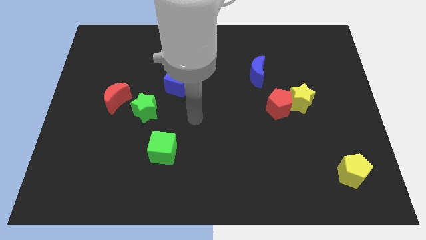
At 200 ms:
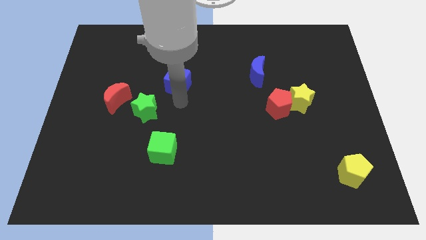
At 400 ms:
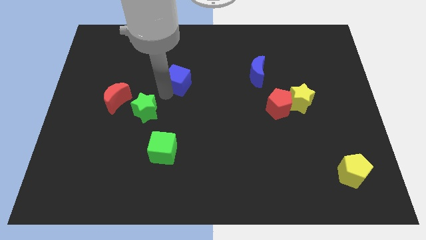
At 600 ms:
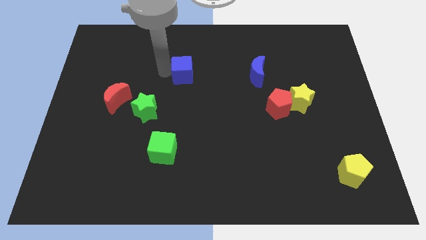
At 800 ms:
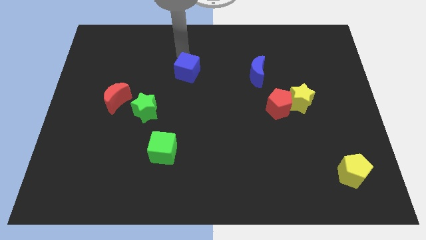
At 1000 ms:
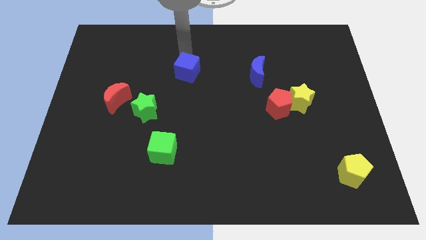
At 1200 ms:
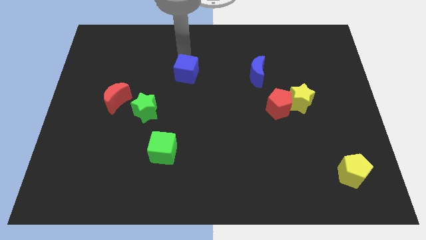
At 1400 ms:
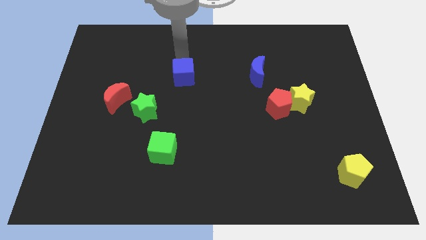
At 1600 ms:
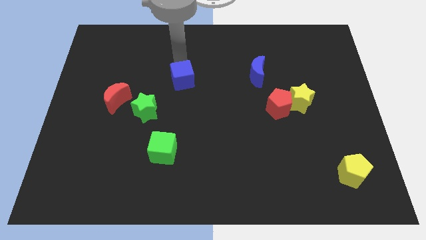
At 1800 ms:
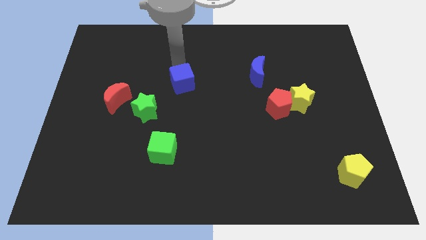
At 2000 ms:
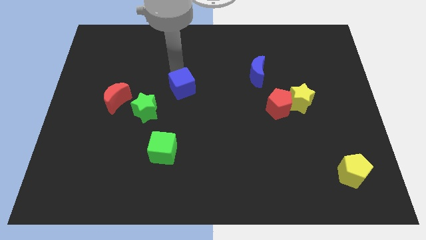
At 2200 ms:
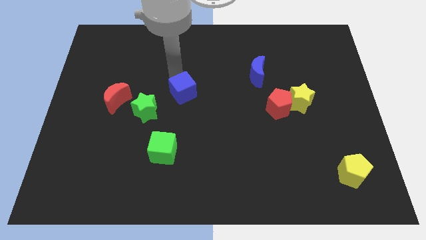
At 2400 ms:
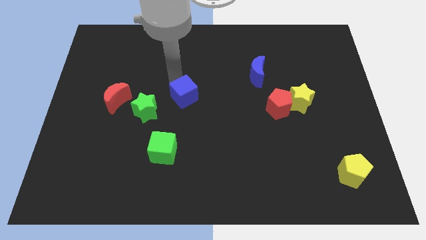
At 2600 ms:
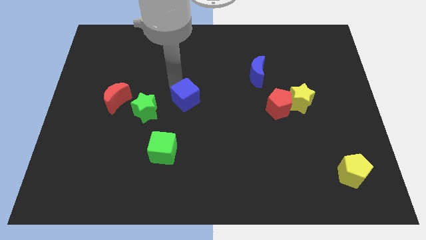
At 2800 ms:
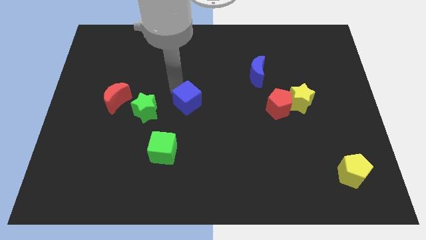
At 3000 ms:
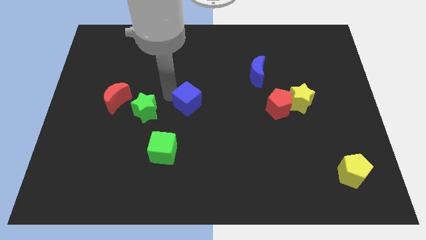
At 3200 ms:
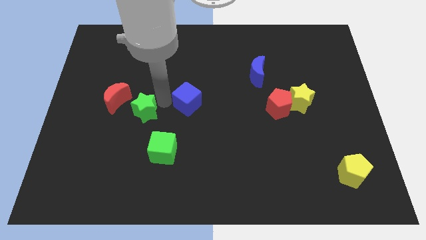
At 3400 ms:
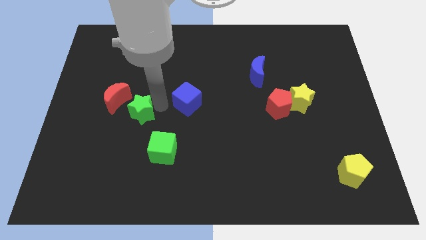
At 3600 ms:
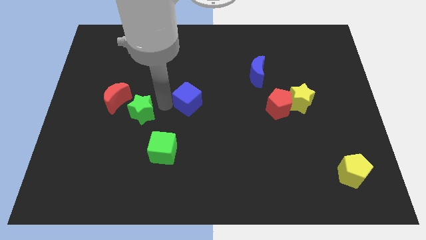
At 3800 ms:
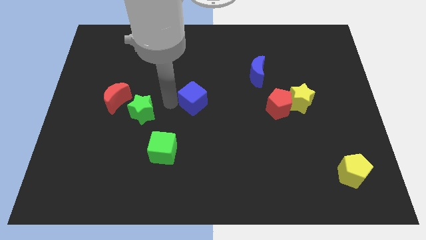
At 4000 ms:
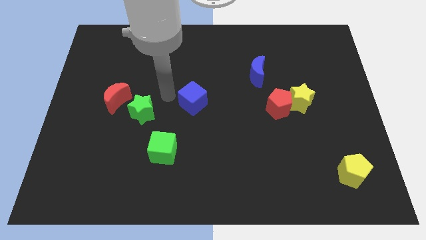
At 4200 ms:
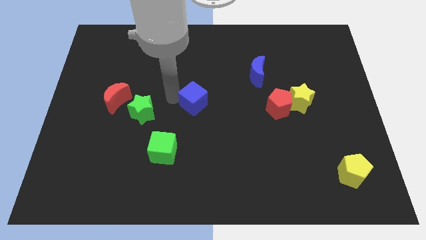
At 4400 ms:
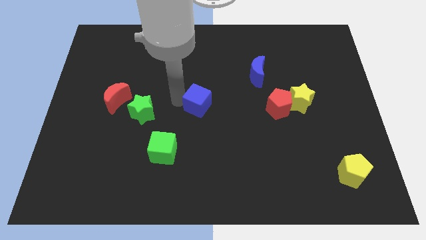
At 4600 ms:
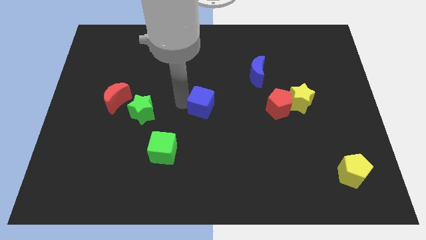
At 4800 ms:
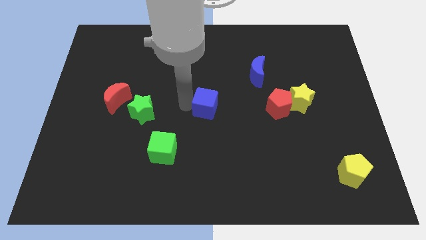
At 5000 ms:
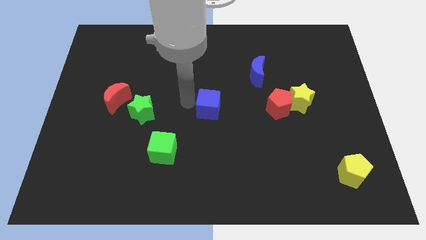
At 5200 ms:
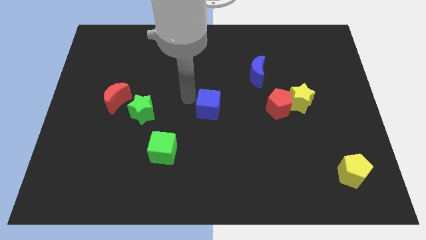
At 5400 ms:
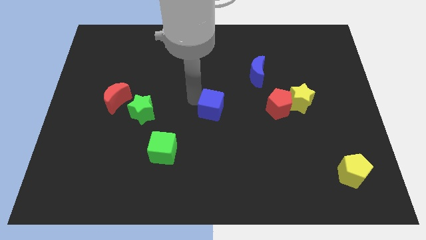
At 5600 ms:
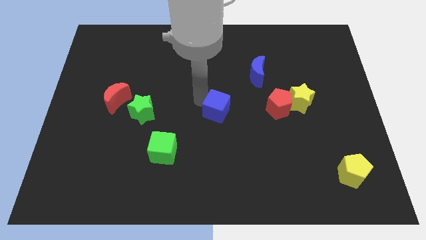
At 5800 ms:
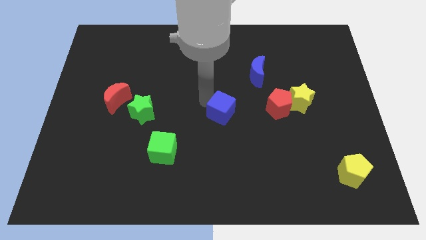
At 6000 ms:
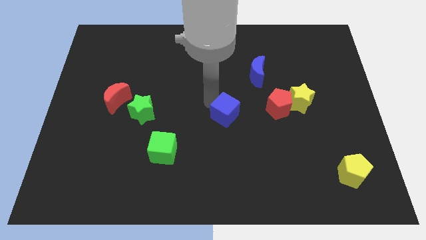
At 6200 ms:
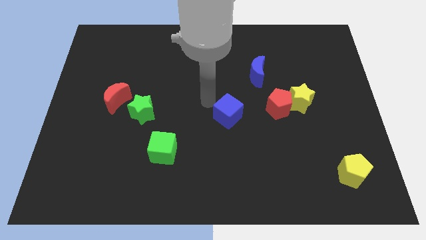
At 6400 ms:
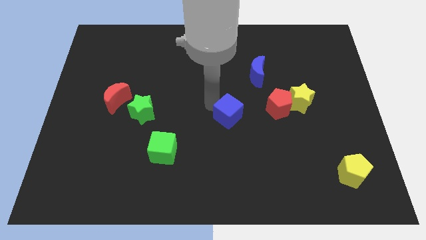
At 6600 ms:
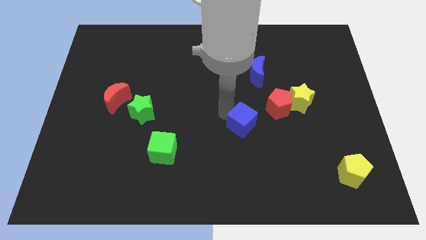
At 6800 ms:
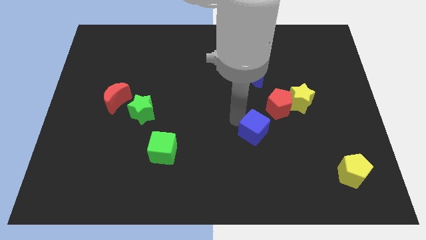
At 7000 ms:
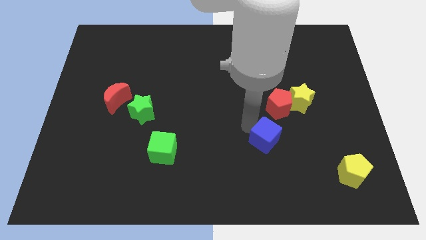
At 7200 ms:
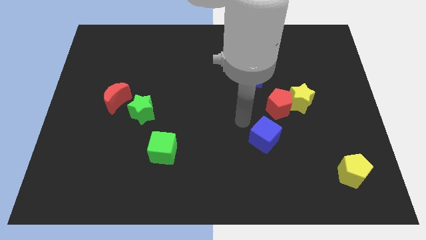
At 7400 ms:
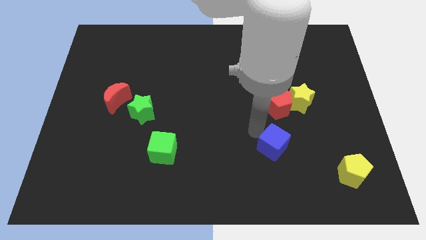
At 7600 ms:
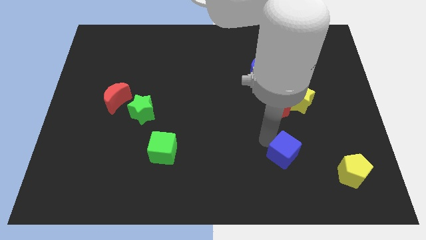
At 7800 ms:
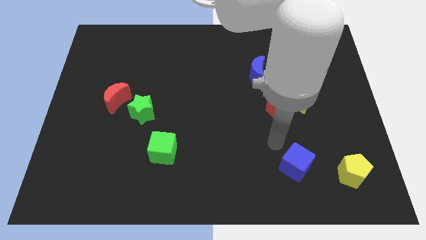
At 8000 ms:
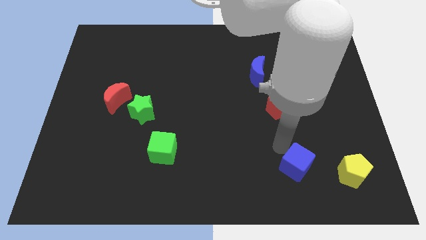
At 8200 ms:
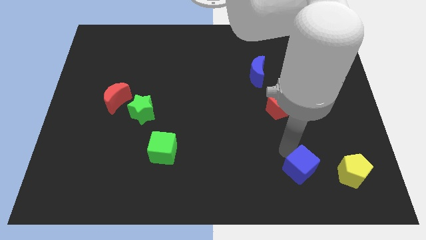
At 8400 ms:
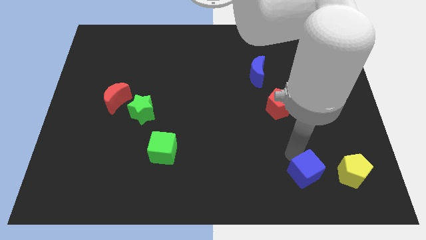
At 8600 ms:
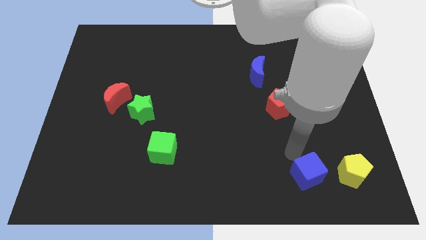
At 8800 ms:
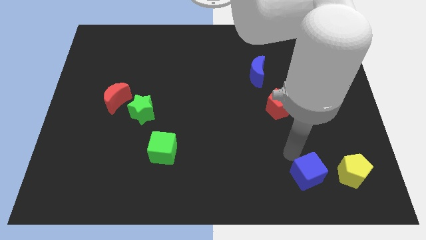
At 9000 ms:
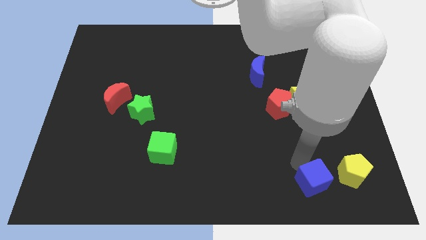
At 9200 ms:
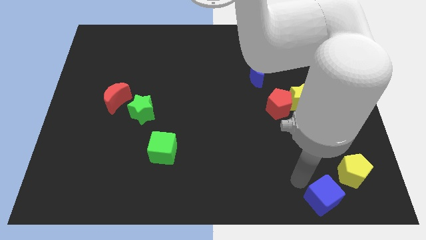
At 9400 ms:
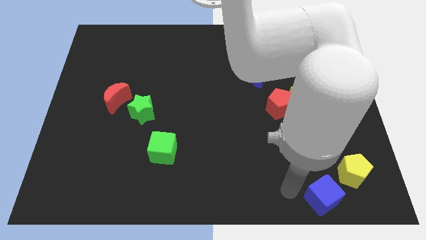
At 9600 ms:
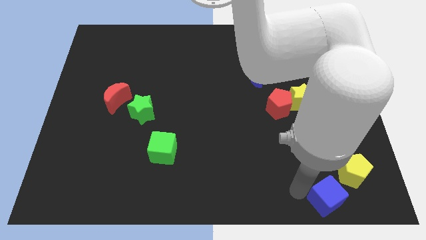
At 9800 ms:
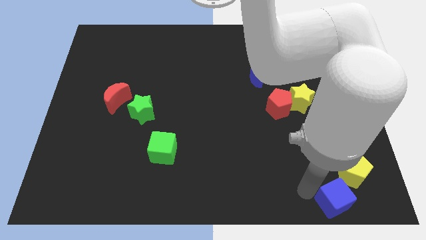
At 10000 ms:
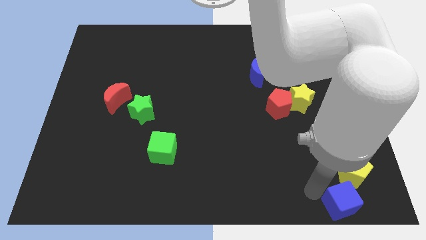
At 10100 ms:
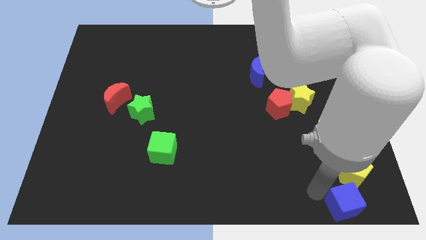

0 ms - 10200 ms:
push the blue cube to the lower right corner

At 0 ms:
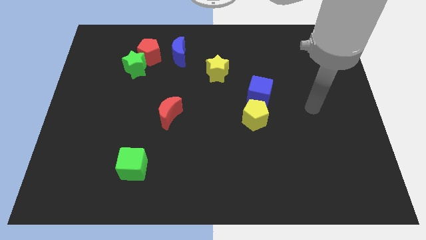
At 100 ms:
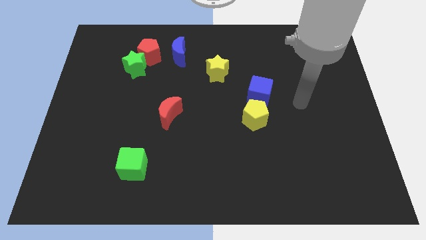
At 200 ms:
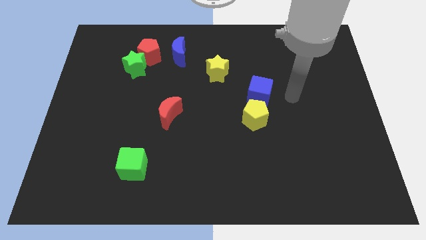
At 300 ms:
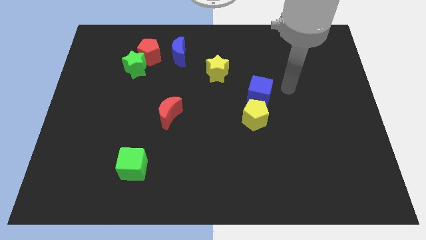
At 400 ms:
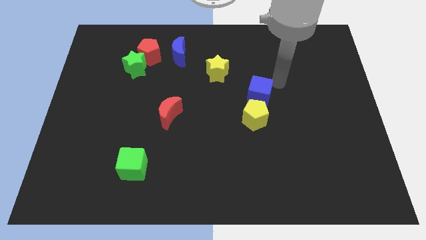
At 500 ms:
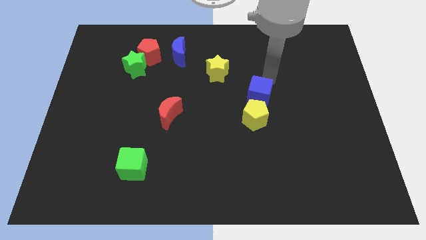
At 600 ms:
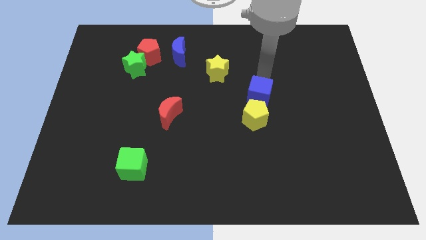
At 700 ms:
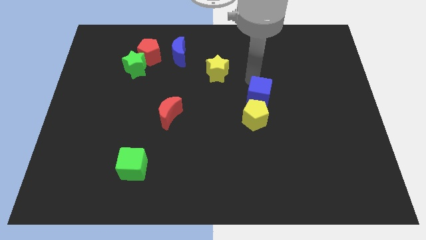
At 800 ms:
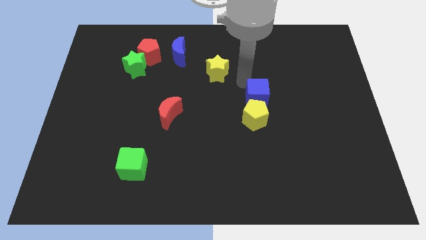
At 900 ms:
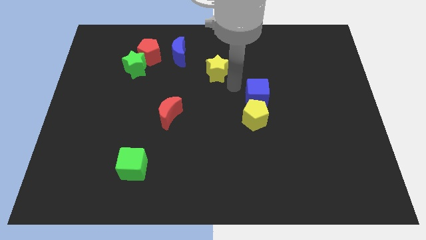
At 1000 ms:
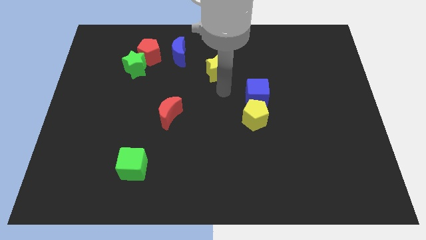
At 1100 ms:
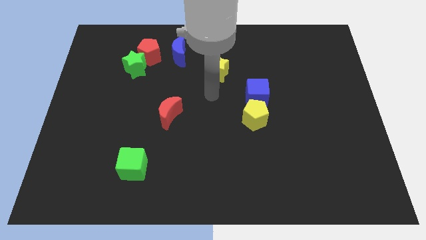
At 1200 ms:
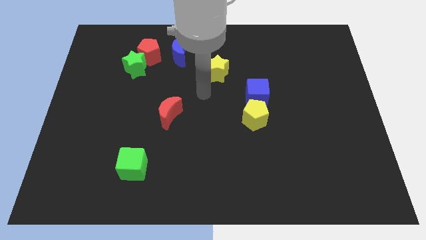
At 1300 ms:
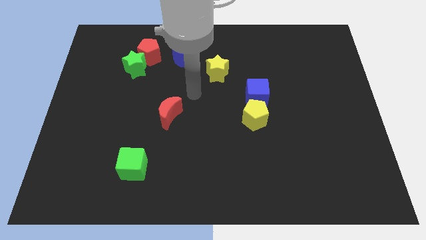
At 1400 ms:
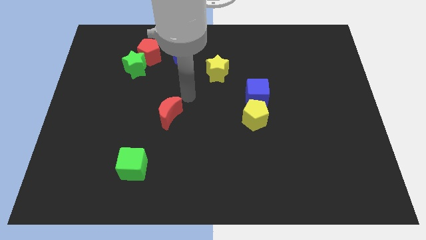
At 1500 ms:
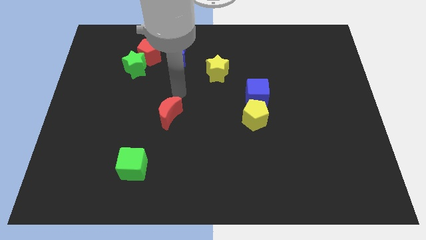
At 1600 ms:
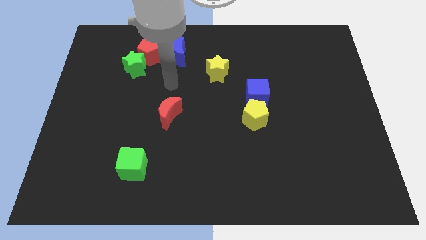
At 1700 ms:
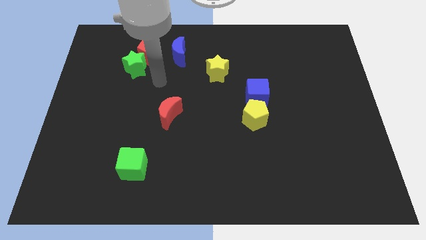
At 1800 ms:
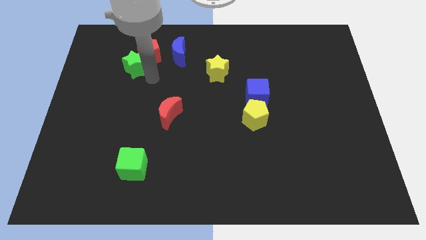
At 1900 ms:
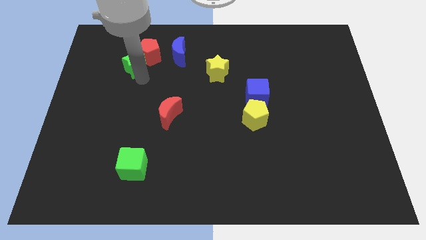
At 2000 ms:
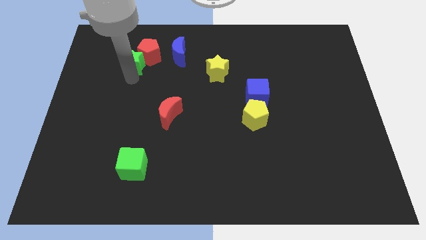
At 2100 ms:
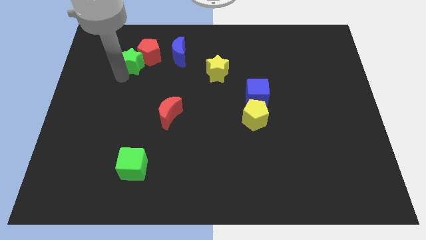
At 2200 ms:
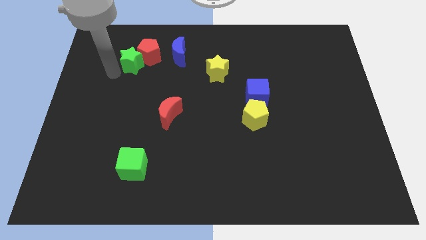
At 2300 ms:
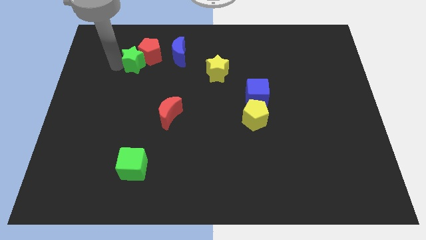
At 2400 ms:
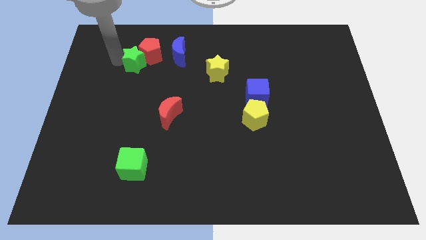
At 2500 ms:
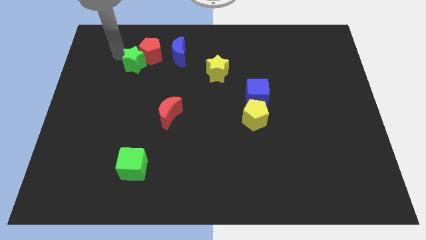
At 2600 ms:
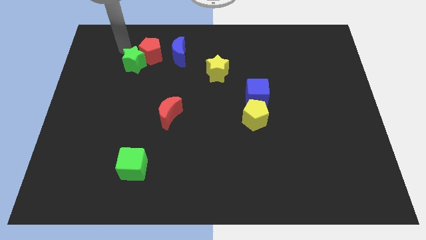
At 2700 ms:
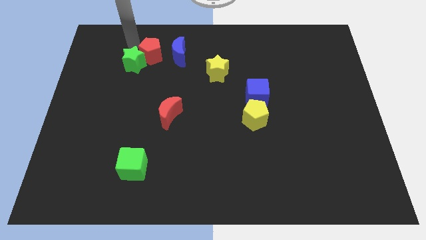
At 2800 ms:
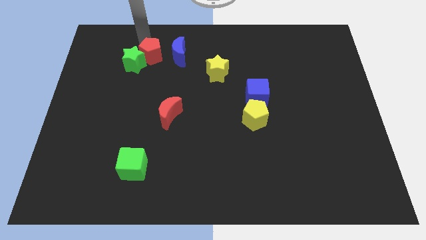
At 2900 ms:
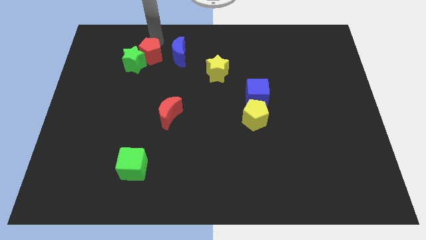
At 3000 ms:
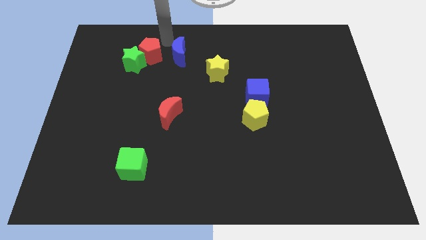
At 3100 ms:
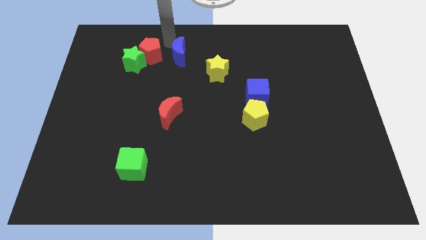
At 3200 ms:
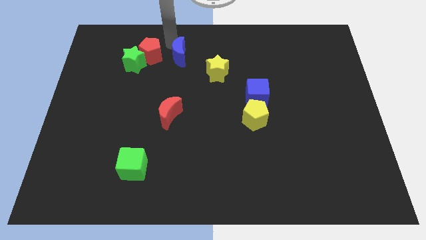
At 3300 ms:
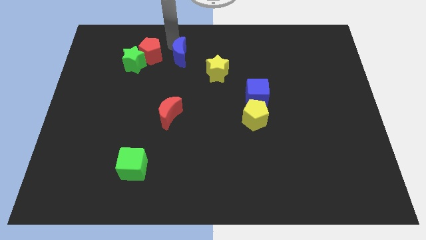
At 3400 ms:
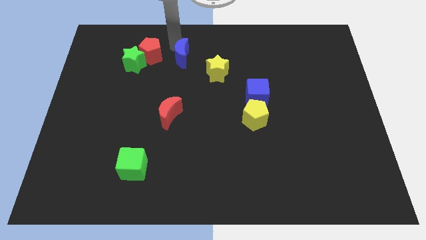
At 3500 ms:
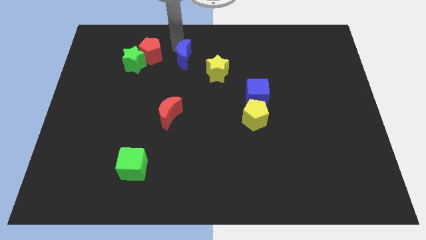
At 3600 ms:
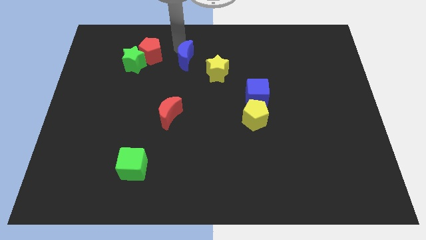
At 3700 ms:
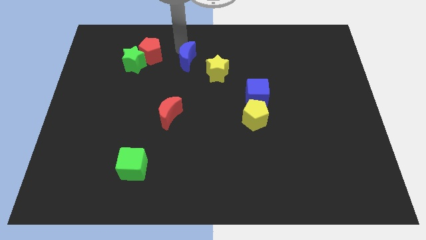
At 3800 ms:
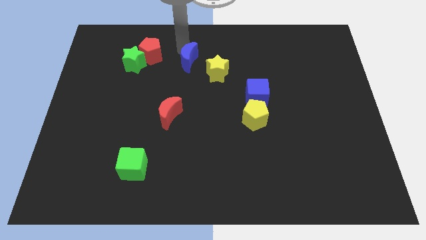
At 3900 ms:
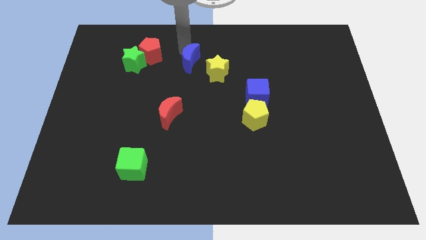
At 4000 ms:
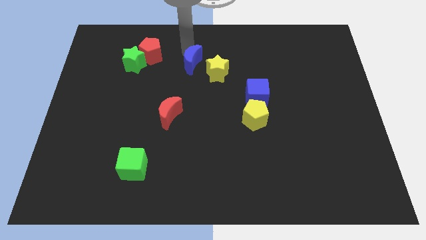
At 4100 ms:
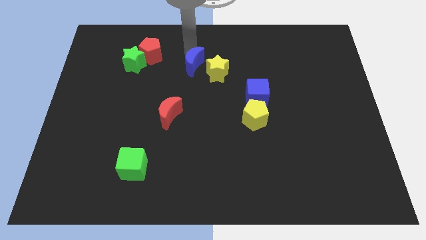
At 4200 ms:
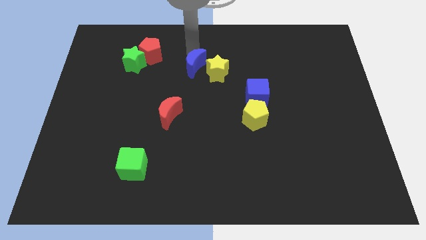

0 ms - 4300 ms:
move the blue moon to the center
